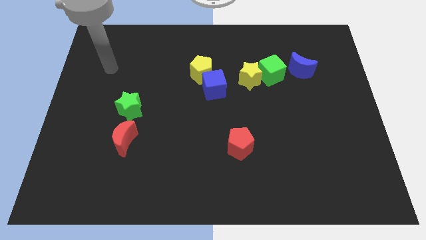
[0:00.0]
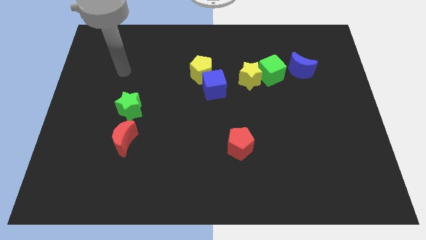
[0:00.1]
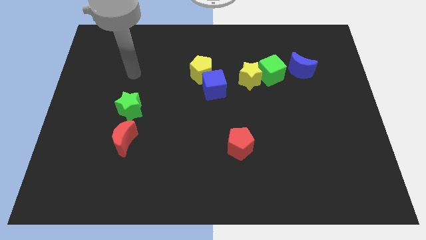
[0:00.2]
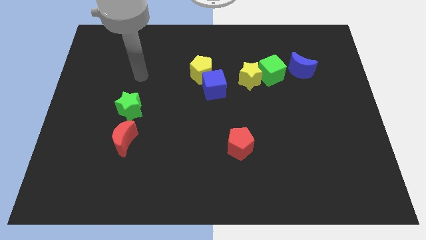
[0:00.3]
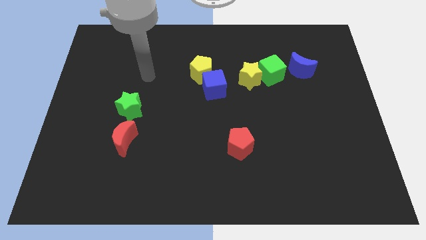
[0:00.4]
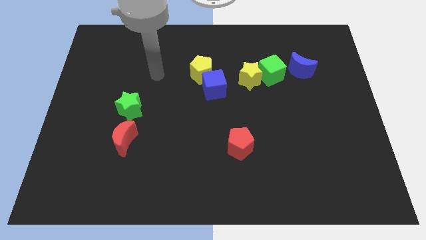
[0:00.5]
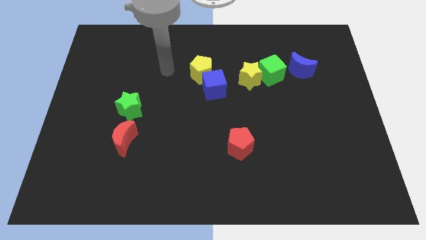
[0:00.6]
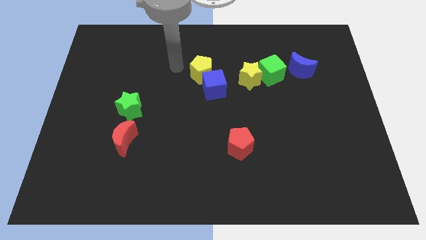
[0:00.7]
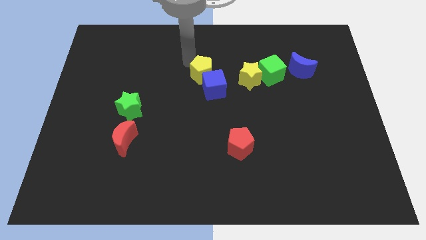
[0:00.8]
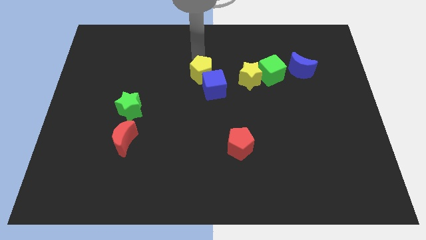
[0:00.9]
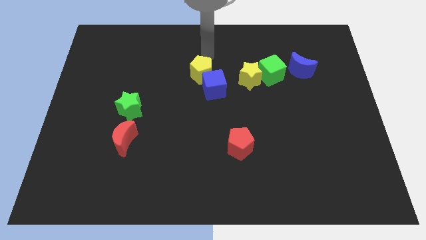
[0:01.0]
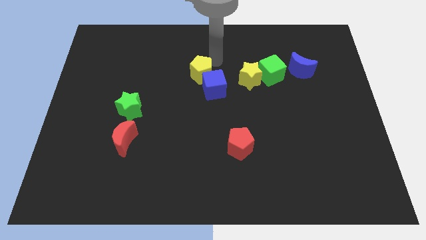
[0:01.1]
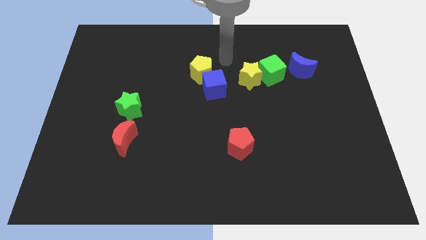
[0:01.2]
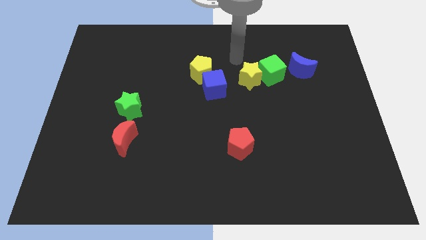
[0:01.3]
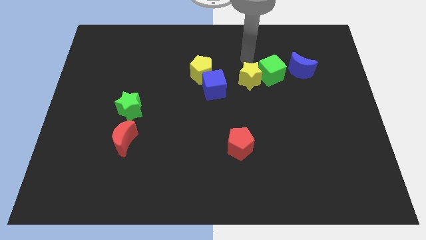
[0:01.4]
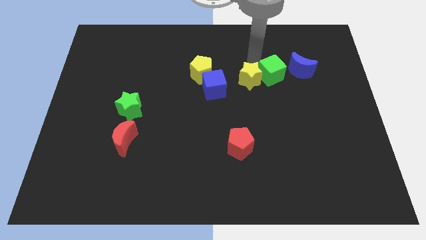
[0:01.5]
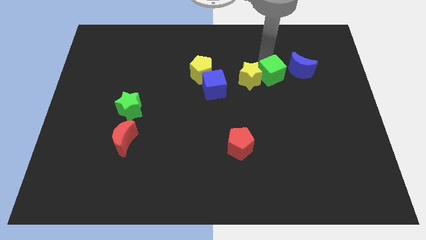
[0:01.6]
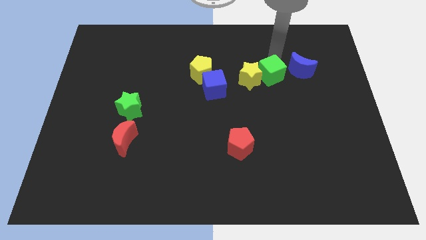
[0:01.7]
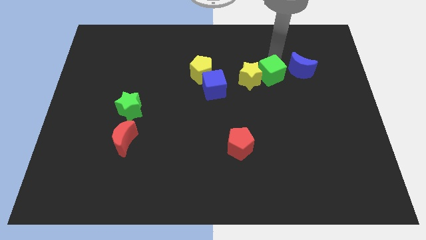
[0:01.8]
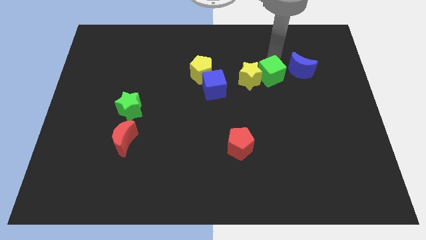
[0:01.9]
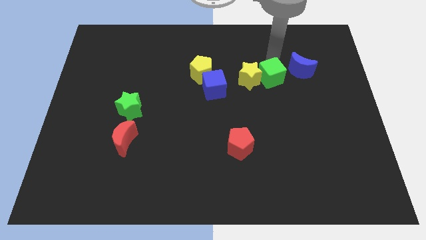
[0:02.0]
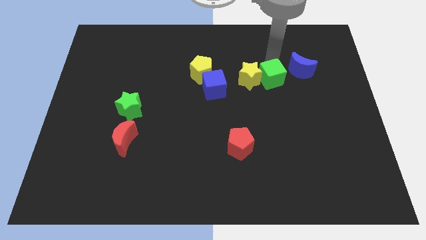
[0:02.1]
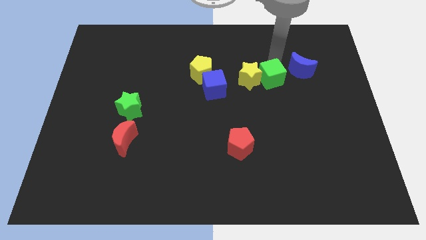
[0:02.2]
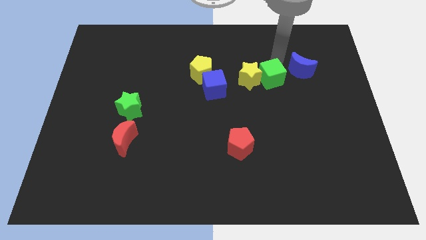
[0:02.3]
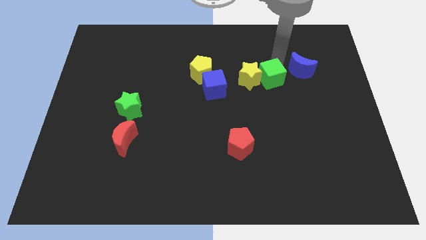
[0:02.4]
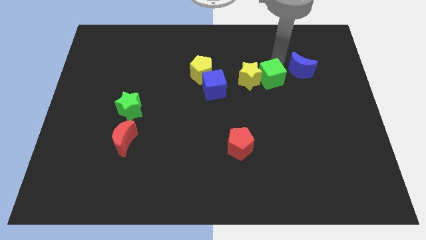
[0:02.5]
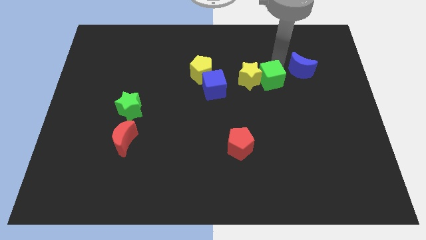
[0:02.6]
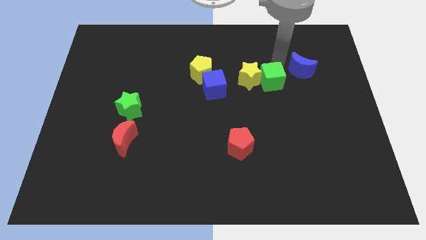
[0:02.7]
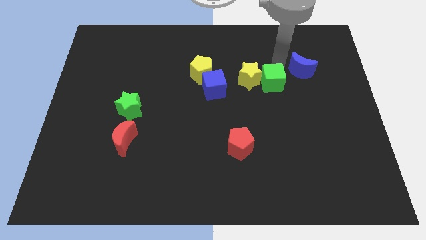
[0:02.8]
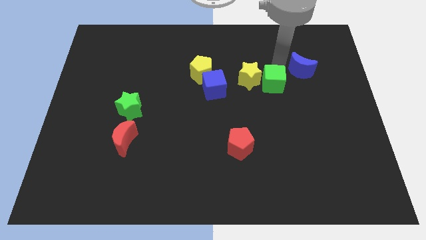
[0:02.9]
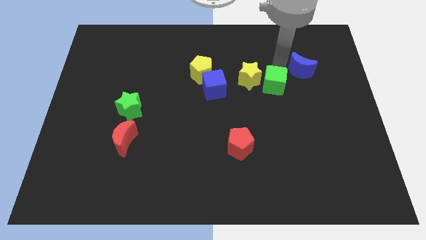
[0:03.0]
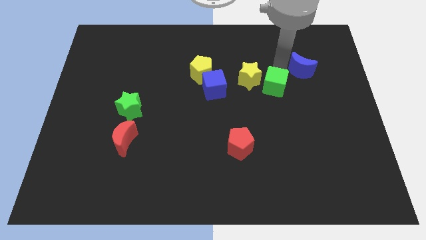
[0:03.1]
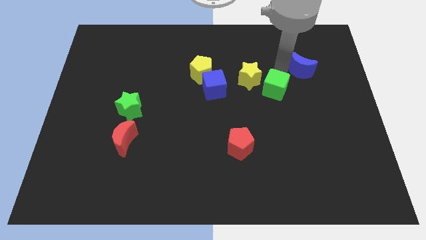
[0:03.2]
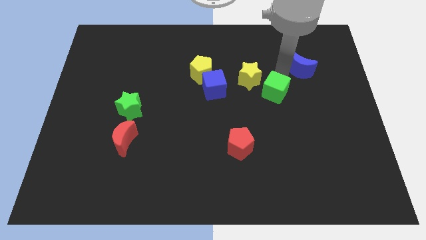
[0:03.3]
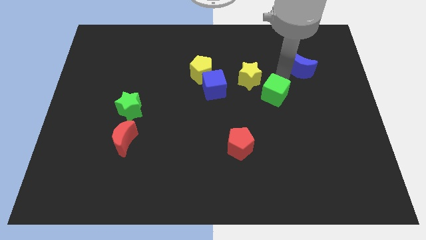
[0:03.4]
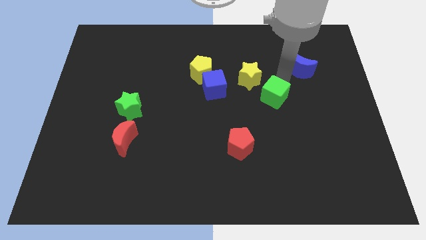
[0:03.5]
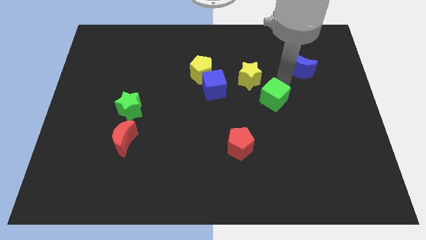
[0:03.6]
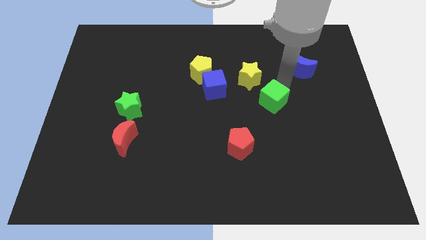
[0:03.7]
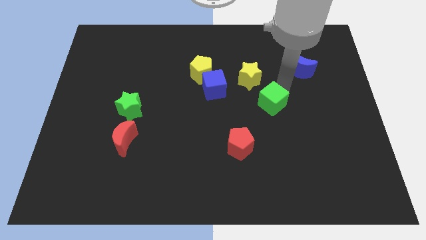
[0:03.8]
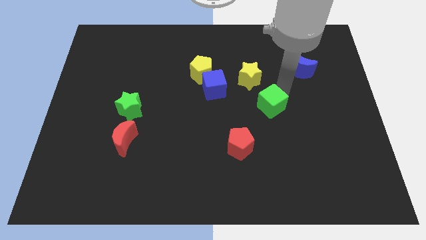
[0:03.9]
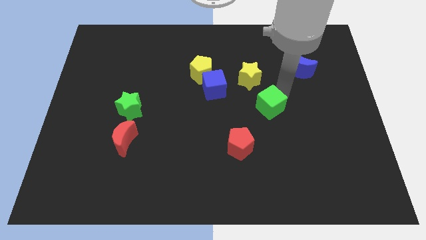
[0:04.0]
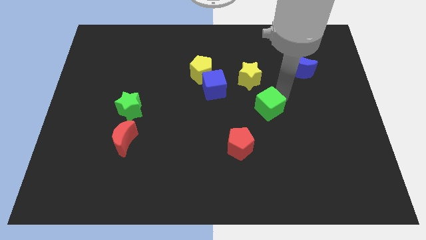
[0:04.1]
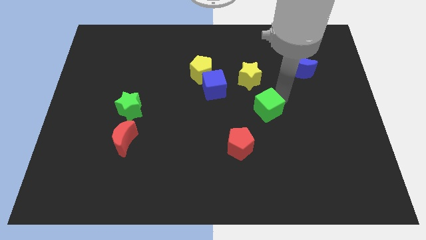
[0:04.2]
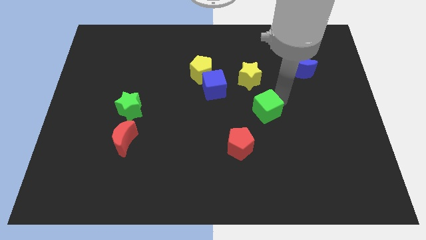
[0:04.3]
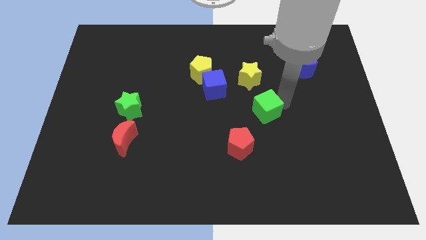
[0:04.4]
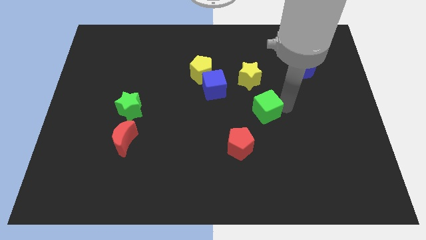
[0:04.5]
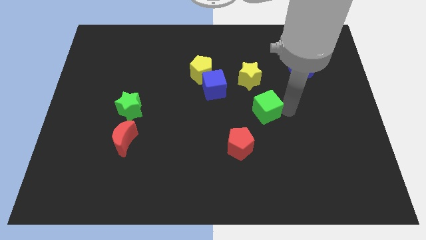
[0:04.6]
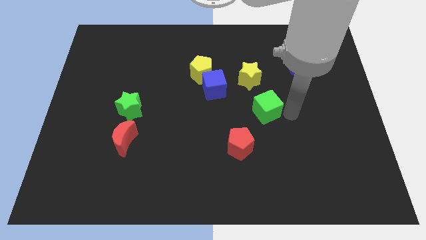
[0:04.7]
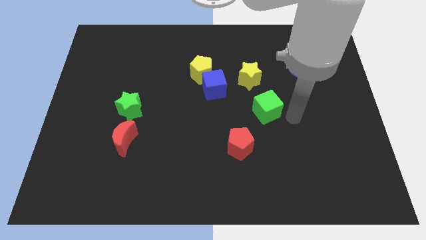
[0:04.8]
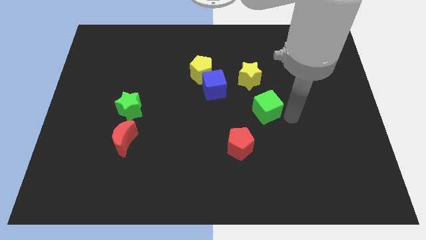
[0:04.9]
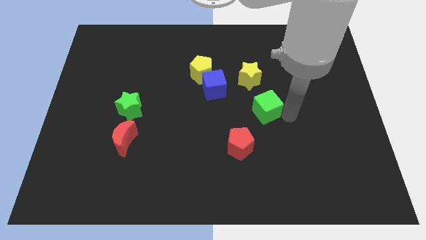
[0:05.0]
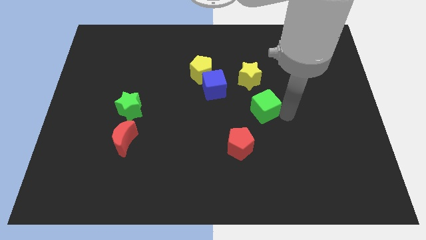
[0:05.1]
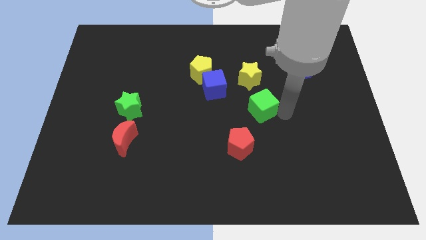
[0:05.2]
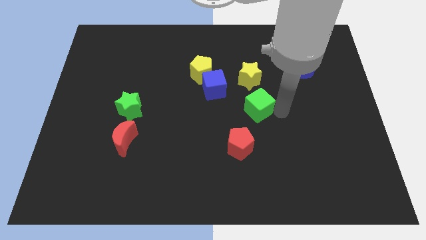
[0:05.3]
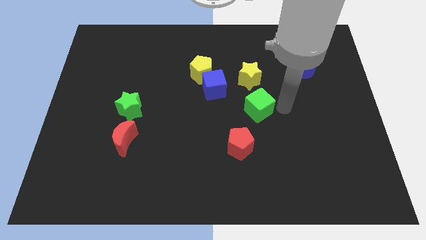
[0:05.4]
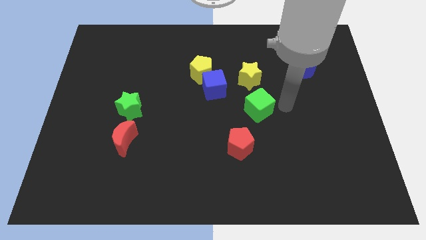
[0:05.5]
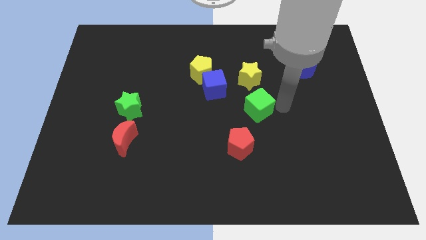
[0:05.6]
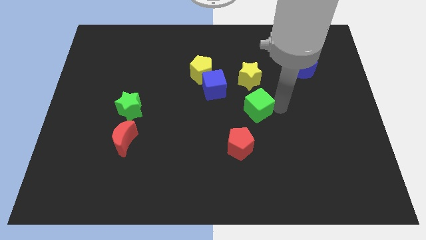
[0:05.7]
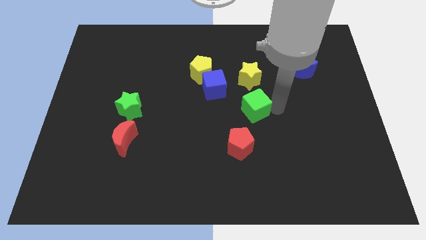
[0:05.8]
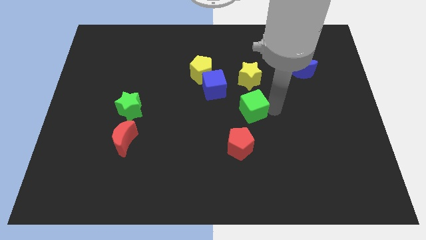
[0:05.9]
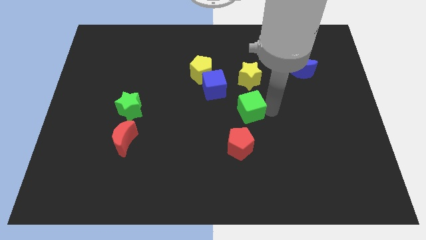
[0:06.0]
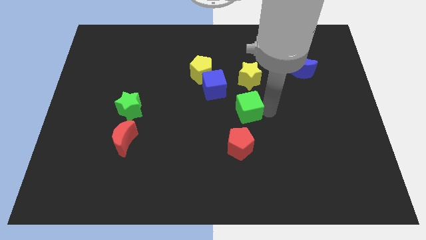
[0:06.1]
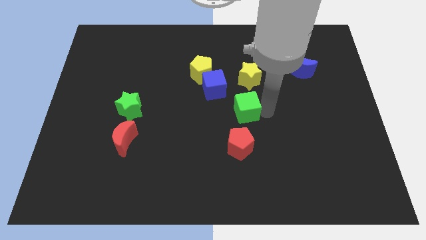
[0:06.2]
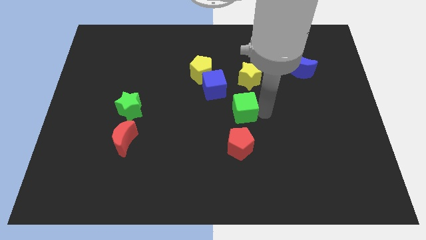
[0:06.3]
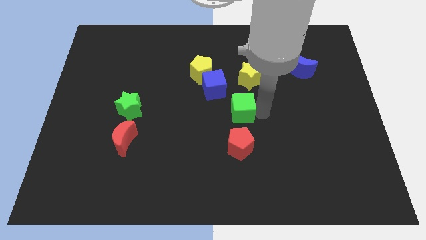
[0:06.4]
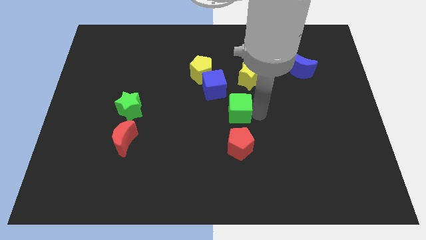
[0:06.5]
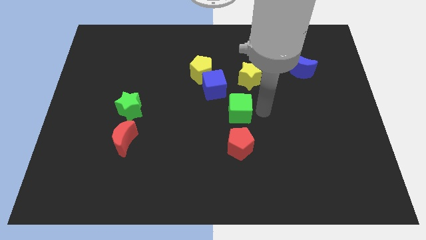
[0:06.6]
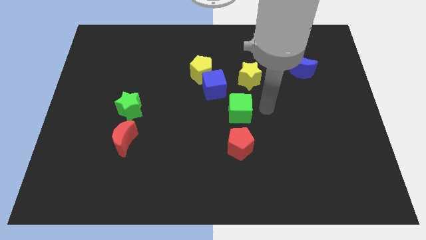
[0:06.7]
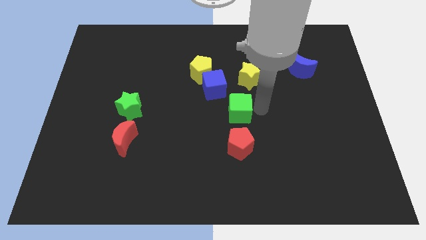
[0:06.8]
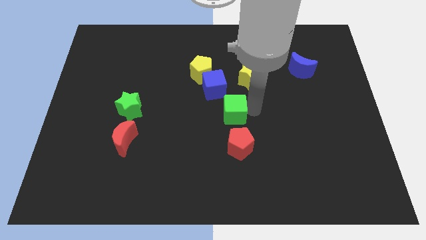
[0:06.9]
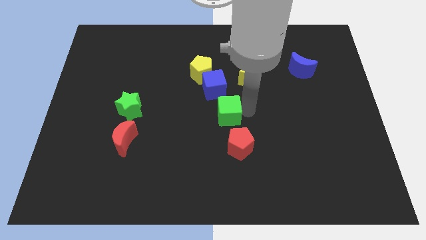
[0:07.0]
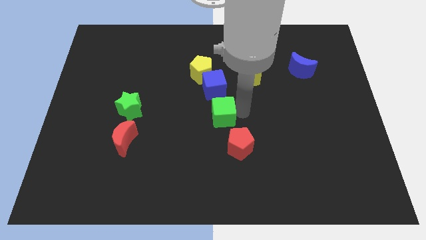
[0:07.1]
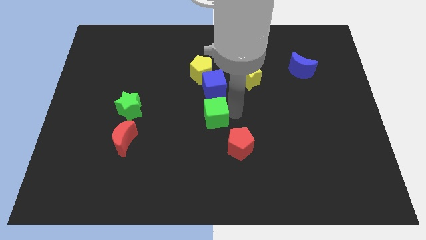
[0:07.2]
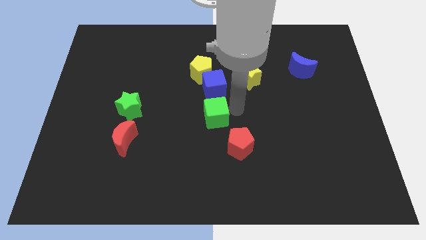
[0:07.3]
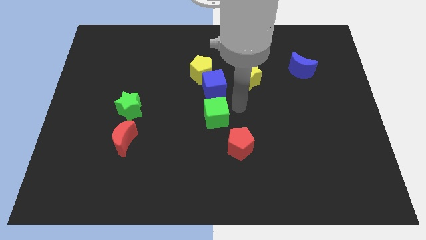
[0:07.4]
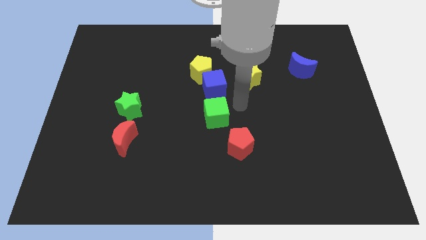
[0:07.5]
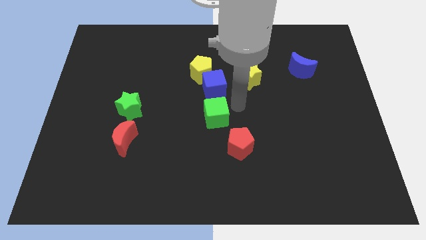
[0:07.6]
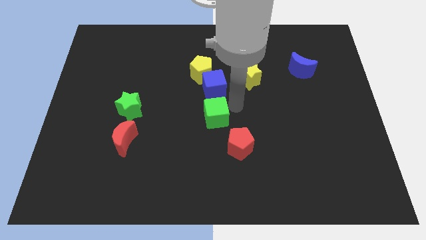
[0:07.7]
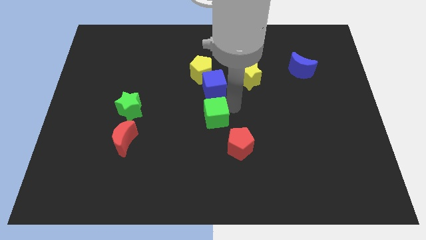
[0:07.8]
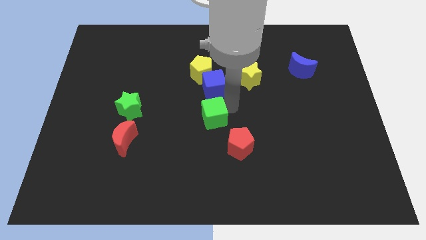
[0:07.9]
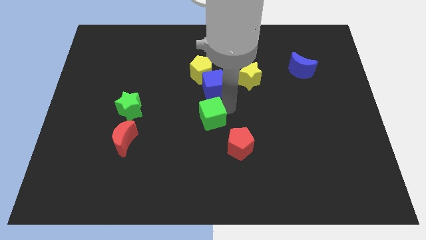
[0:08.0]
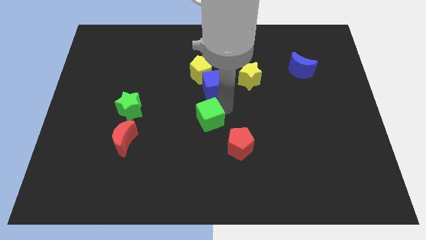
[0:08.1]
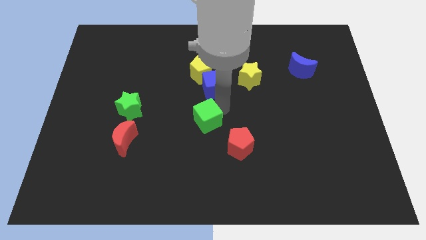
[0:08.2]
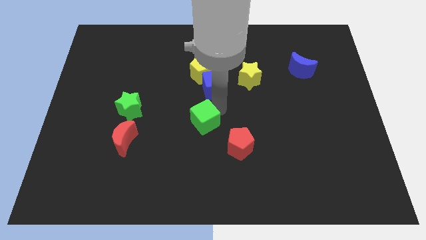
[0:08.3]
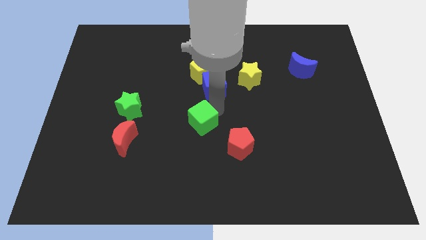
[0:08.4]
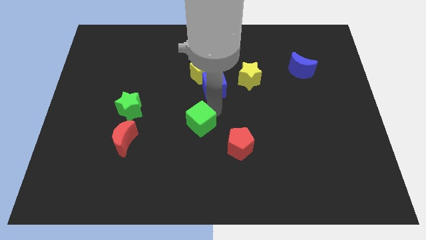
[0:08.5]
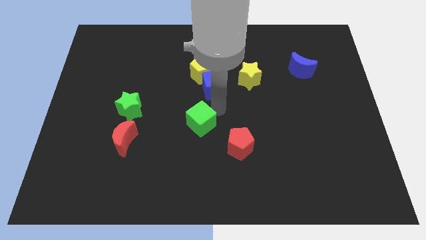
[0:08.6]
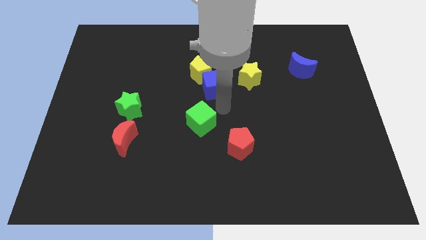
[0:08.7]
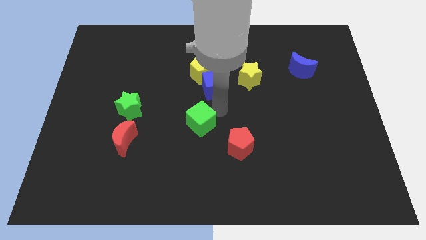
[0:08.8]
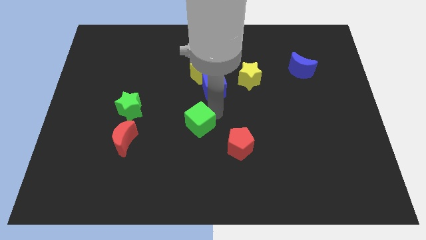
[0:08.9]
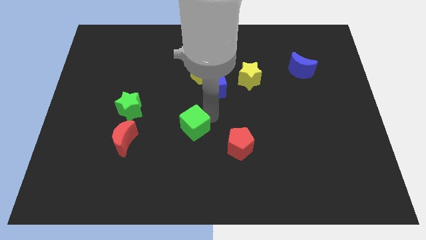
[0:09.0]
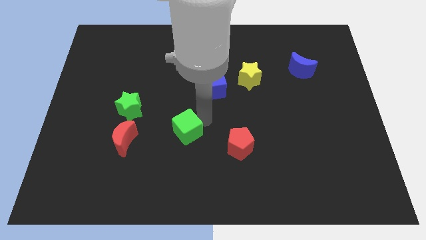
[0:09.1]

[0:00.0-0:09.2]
move the green cube just right of the red moon
